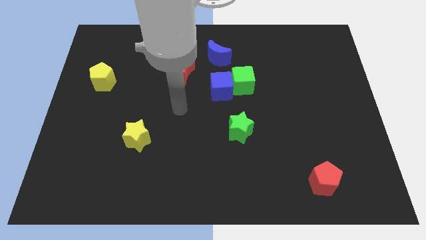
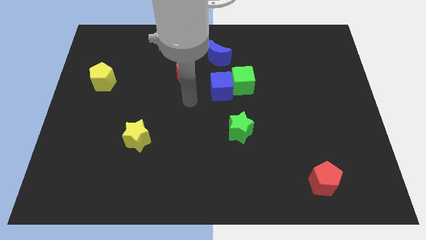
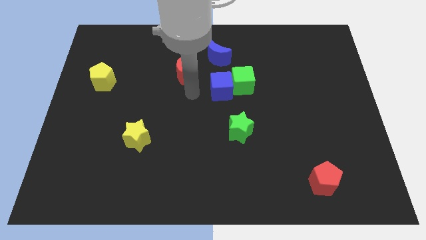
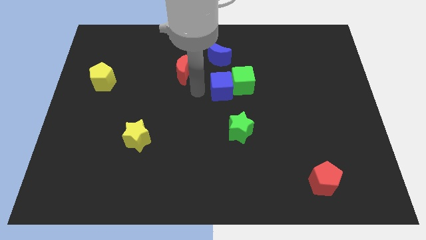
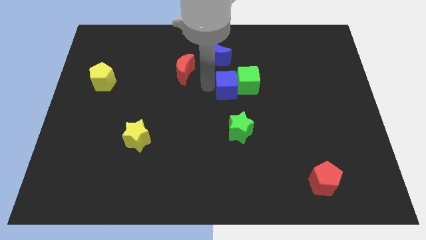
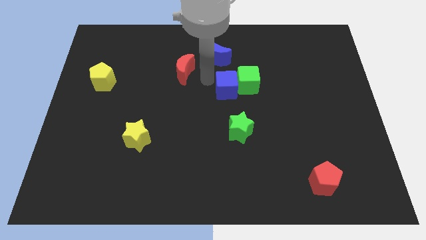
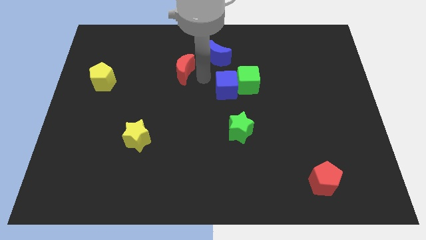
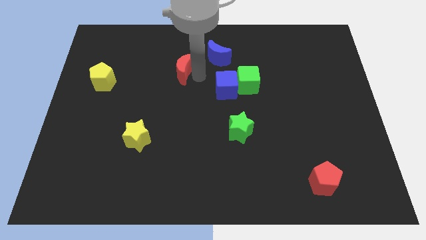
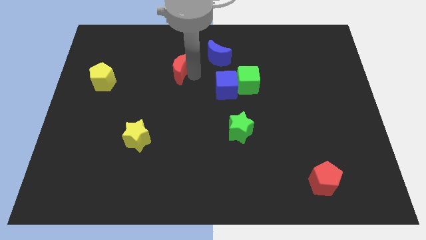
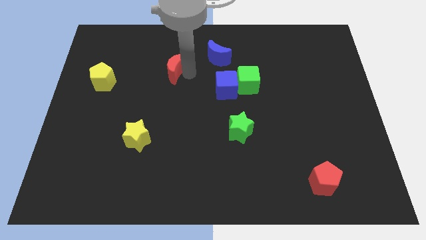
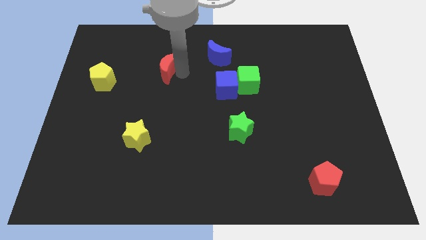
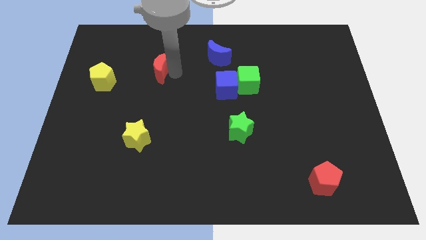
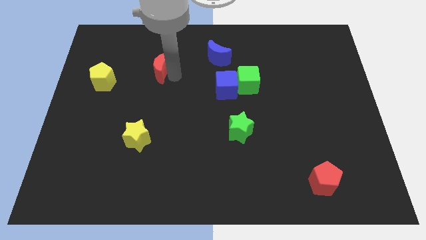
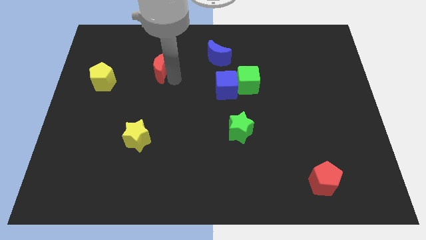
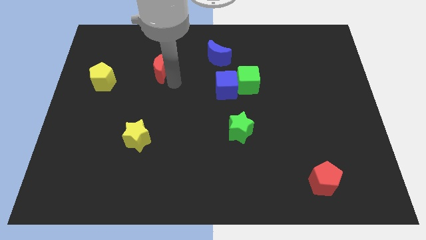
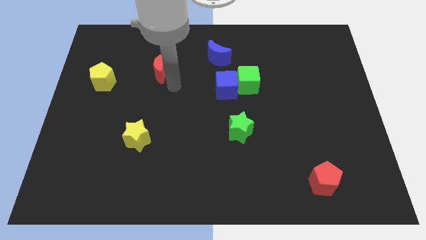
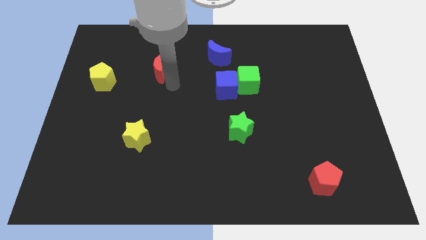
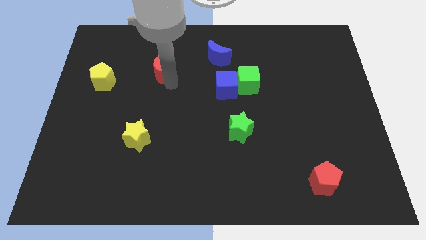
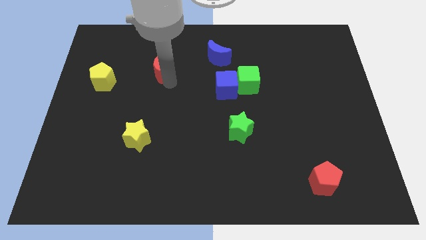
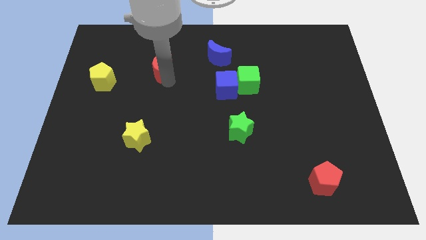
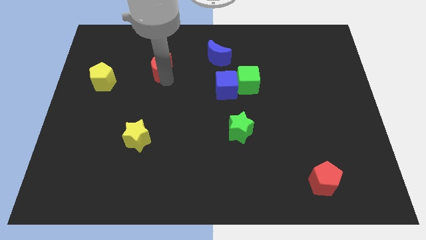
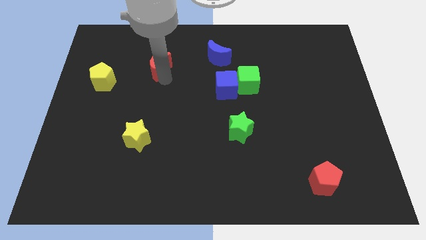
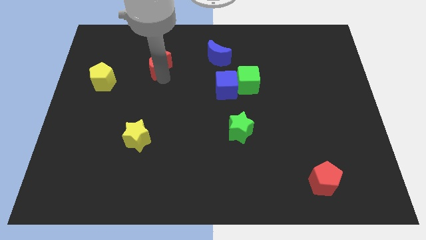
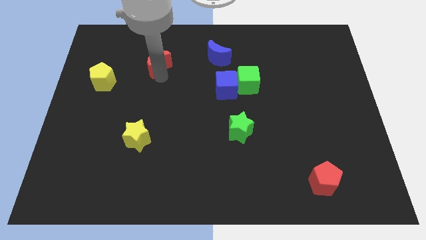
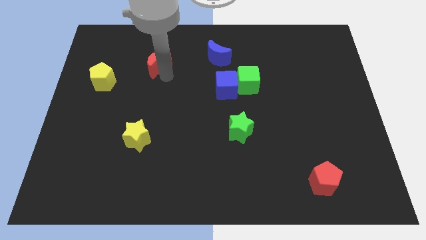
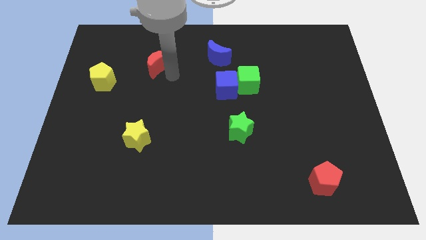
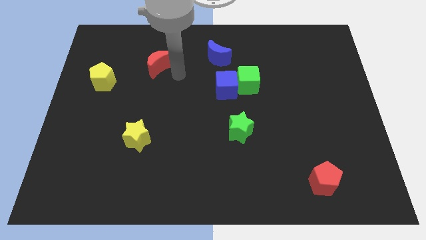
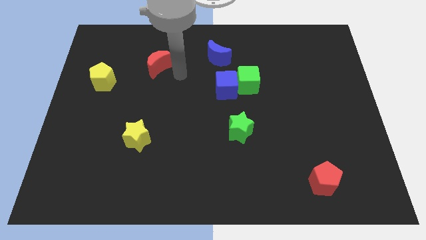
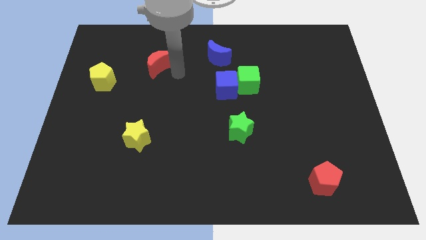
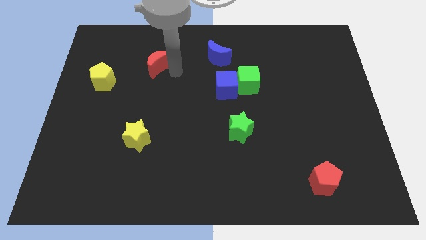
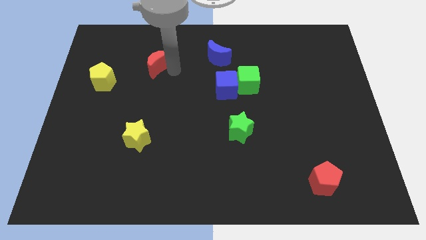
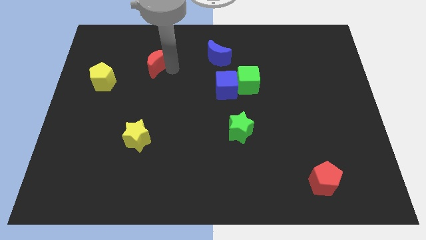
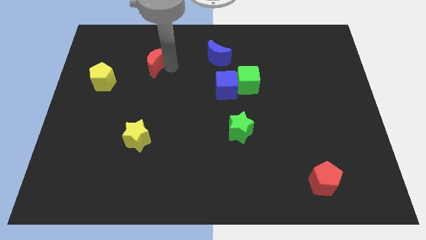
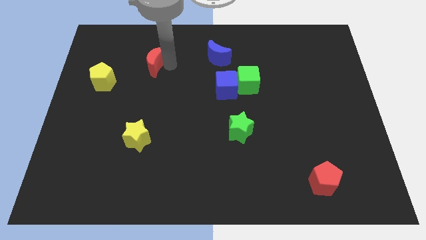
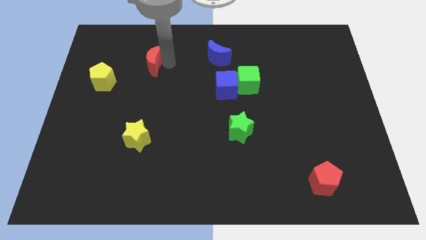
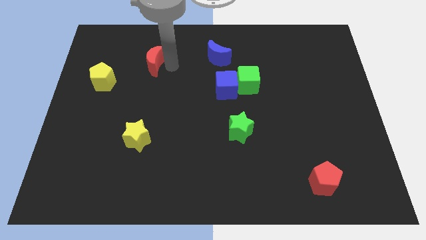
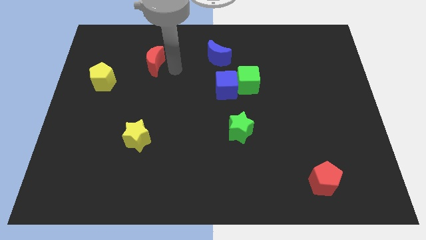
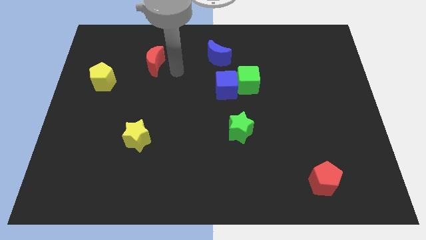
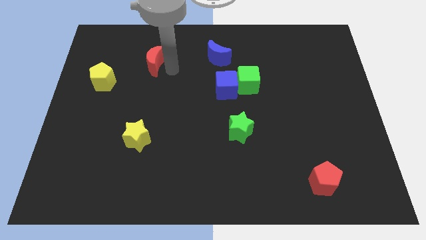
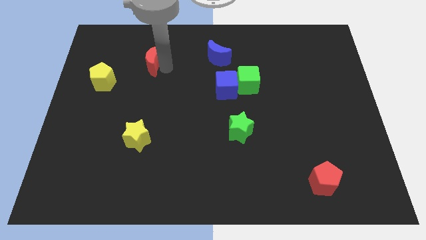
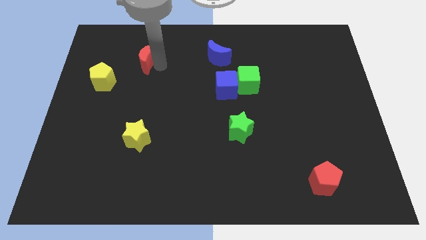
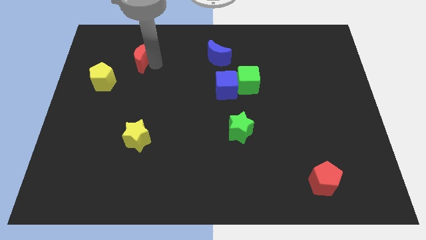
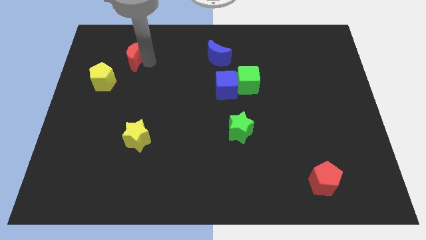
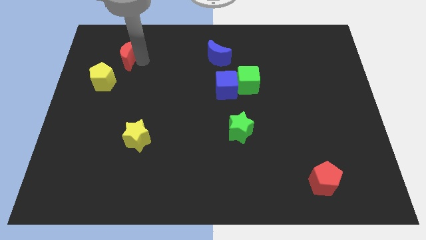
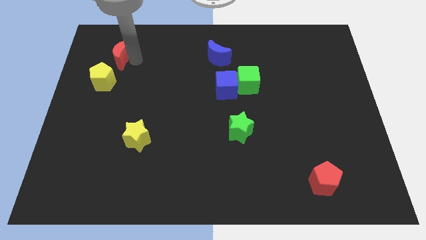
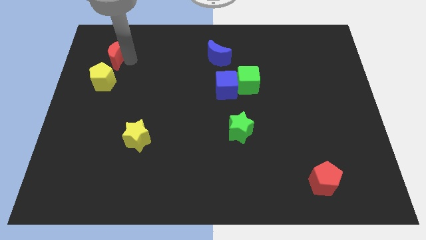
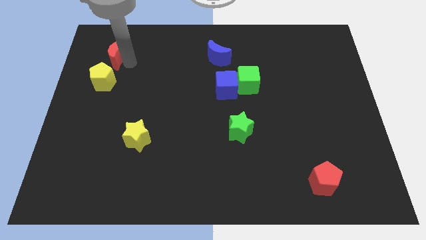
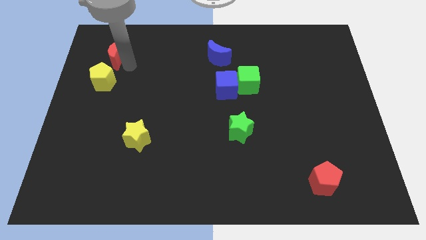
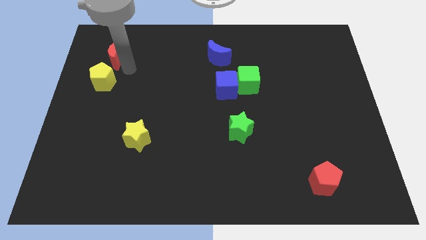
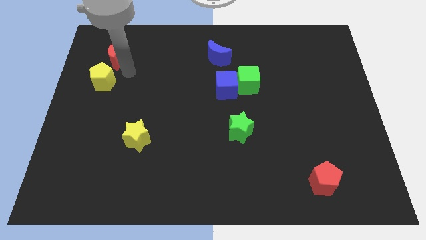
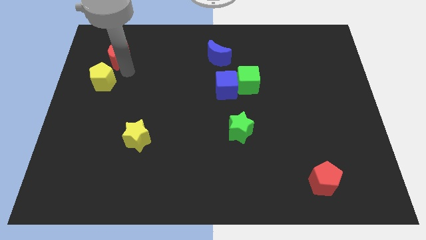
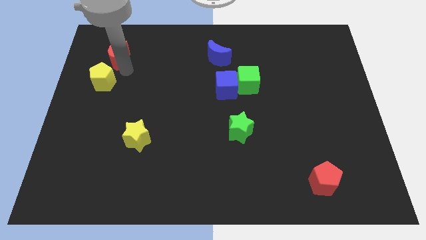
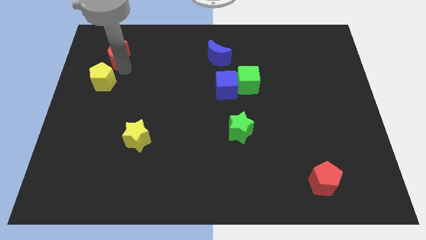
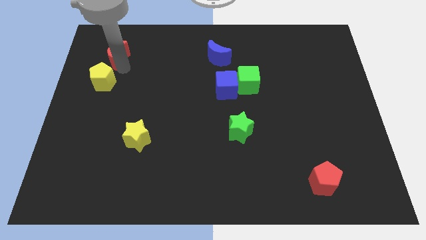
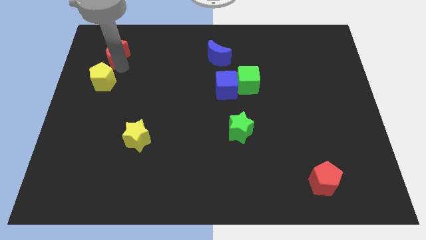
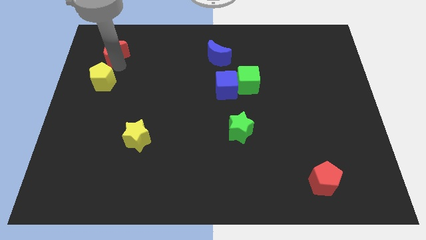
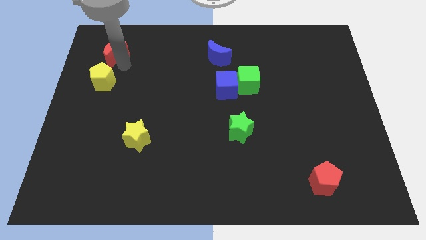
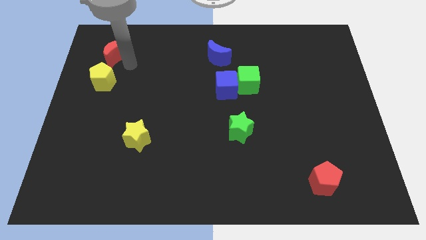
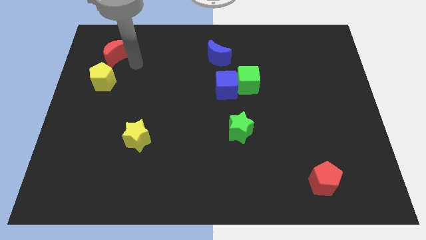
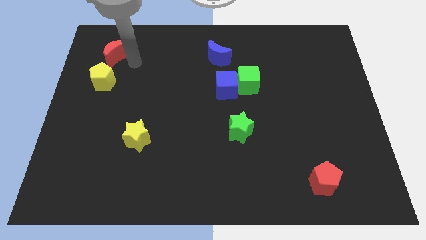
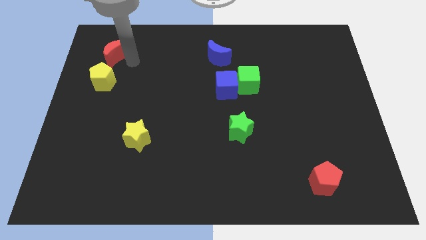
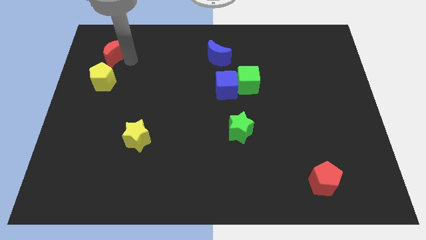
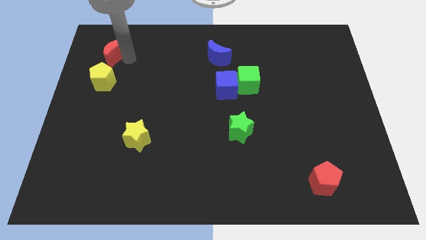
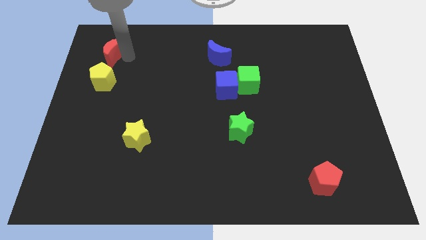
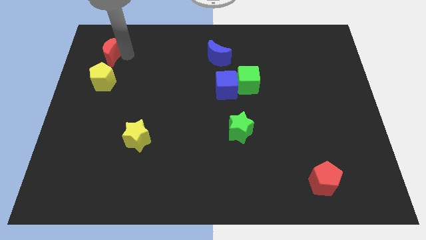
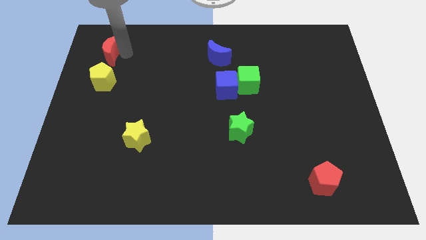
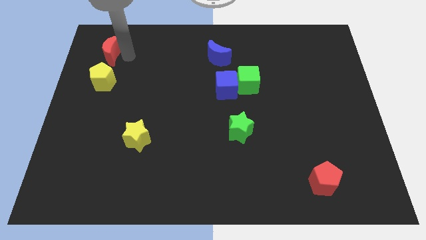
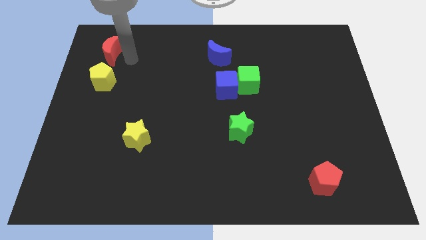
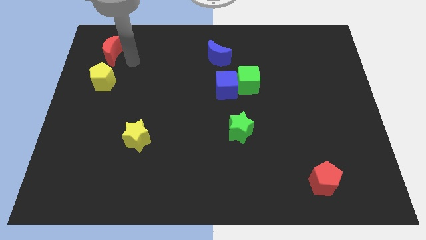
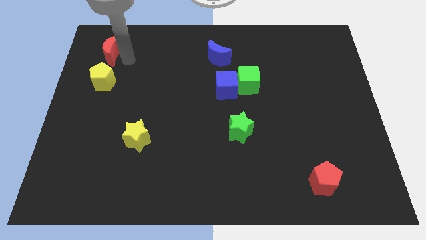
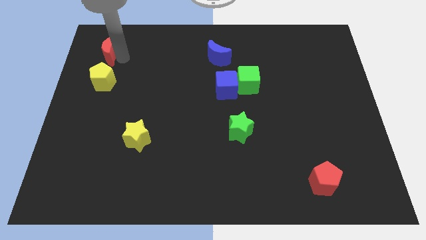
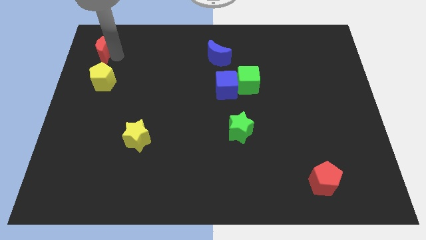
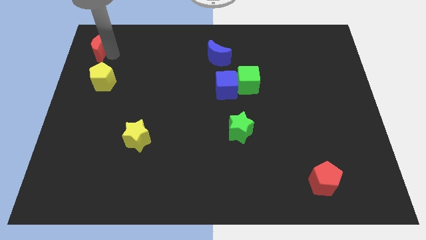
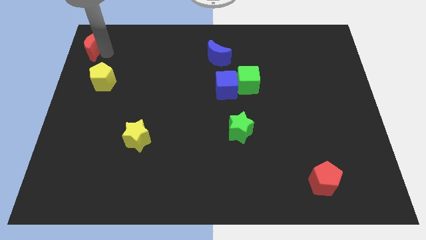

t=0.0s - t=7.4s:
slide the red moon to the top left of the board
